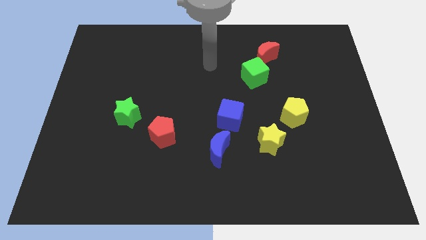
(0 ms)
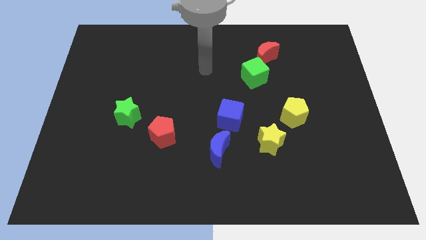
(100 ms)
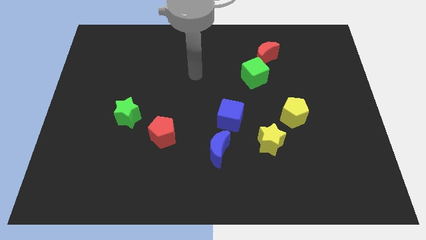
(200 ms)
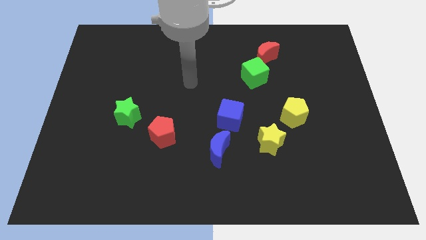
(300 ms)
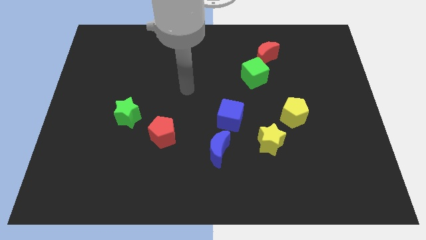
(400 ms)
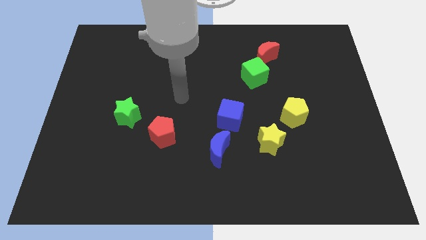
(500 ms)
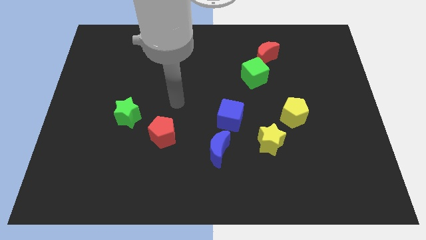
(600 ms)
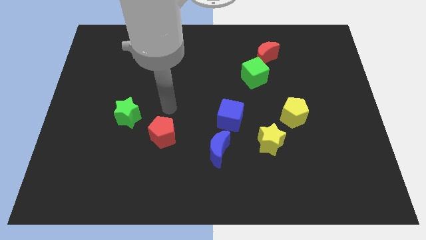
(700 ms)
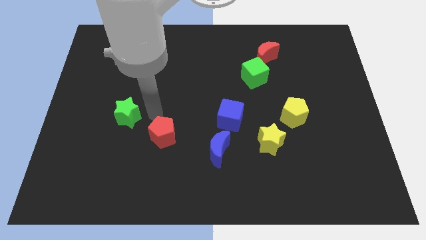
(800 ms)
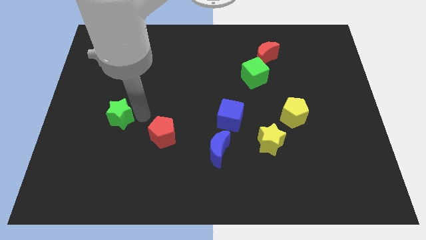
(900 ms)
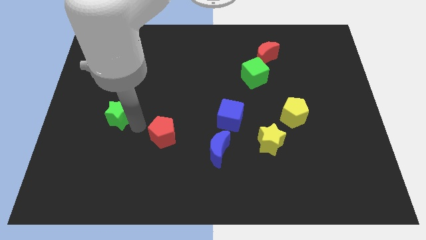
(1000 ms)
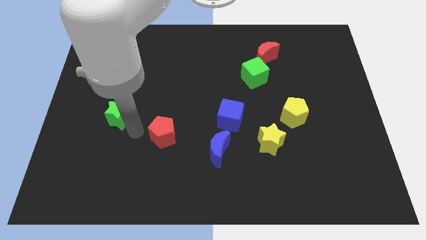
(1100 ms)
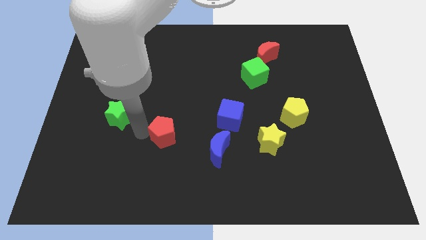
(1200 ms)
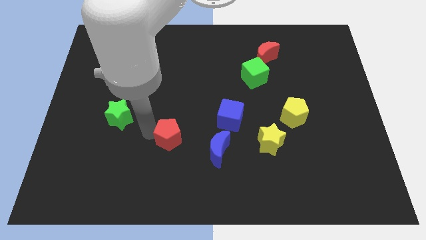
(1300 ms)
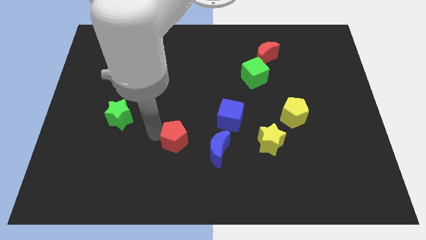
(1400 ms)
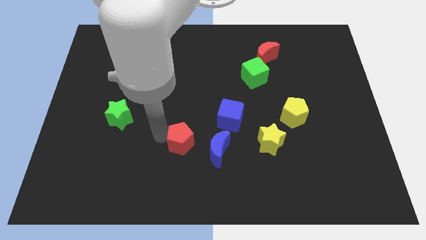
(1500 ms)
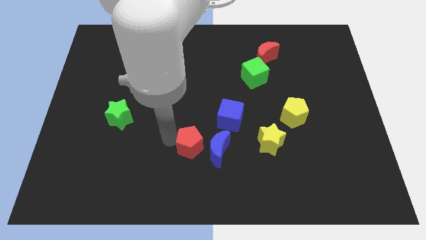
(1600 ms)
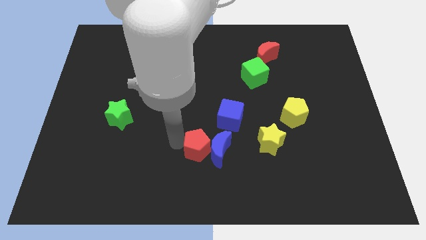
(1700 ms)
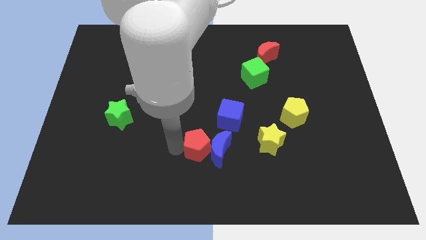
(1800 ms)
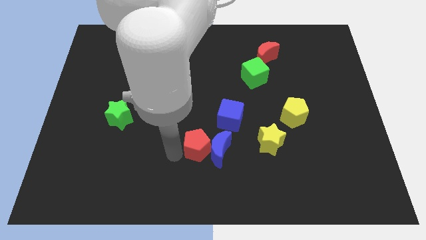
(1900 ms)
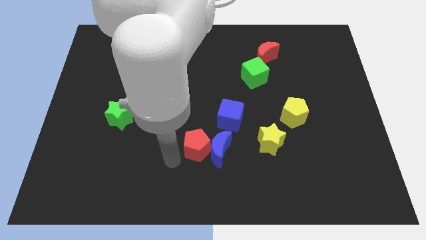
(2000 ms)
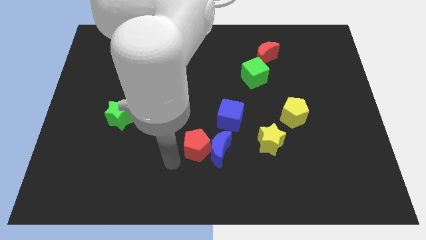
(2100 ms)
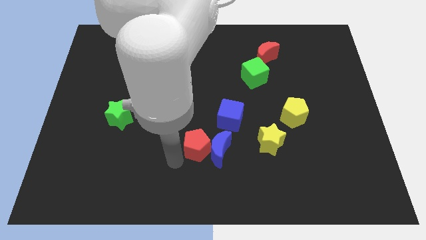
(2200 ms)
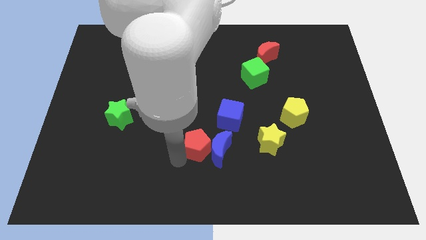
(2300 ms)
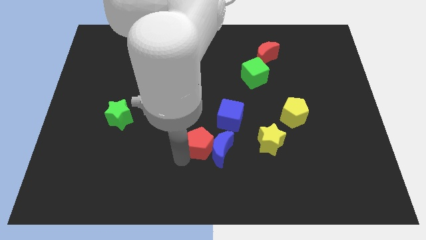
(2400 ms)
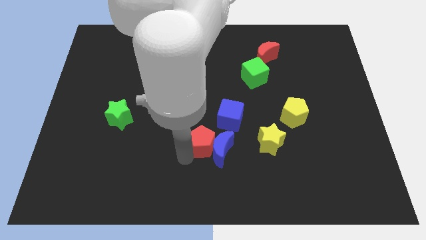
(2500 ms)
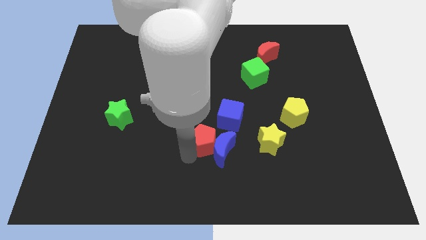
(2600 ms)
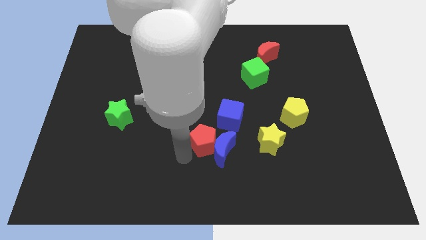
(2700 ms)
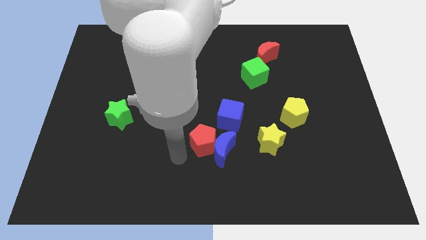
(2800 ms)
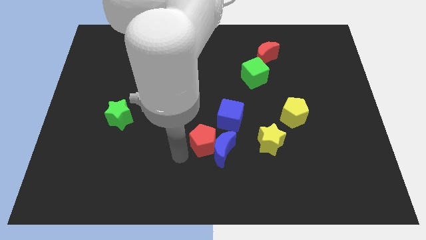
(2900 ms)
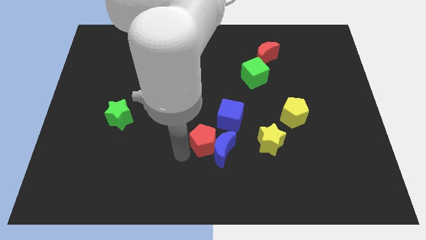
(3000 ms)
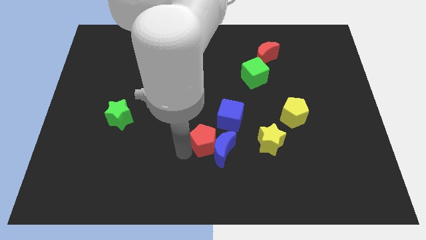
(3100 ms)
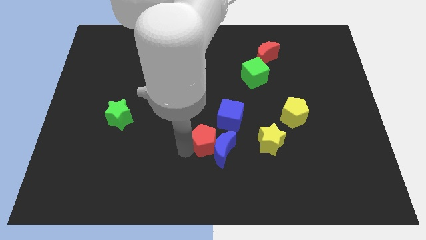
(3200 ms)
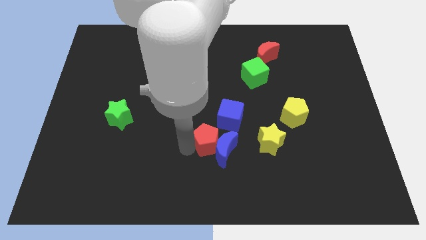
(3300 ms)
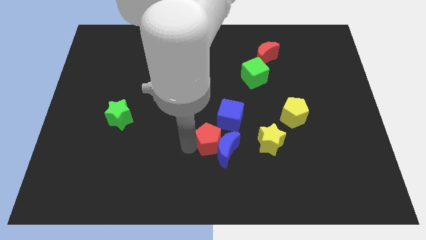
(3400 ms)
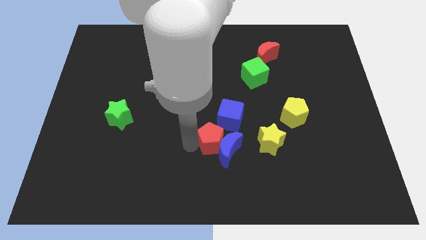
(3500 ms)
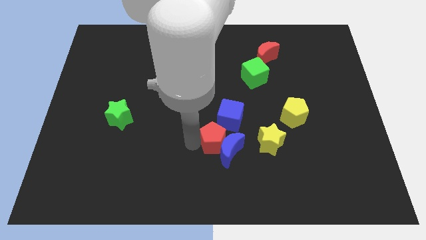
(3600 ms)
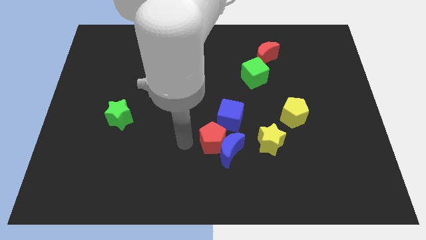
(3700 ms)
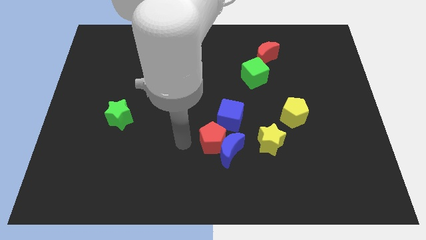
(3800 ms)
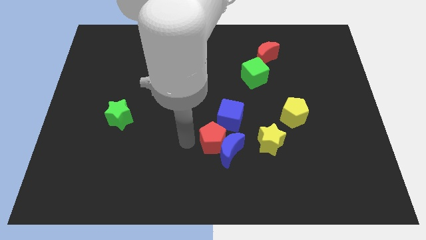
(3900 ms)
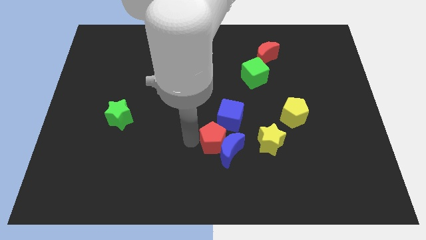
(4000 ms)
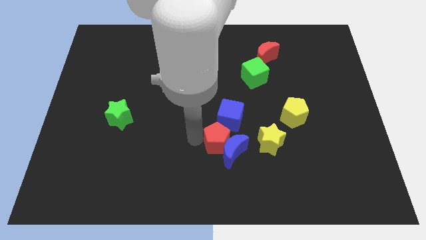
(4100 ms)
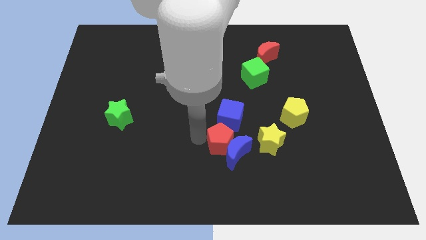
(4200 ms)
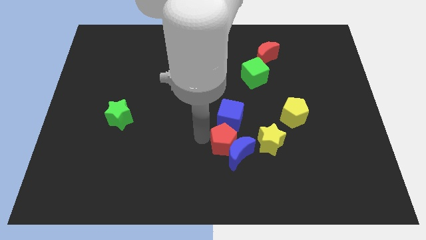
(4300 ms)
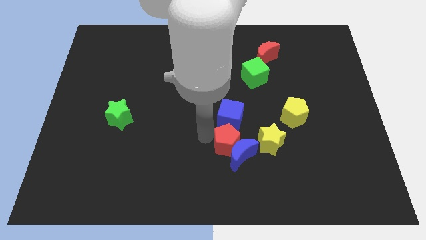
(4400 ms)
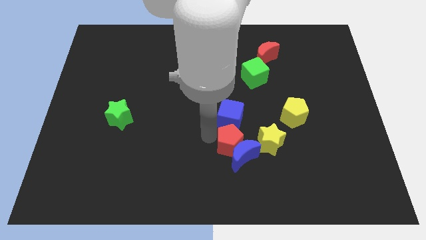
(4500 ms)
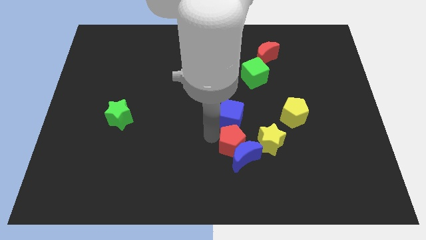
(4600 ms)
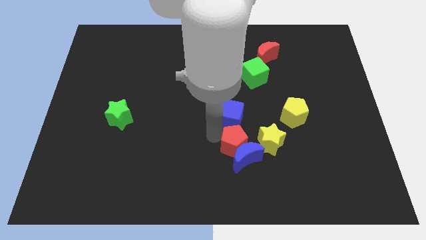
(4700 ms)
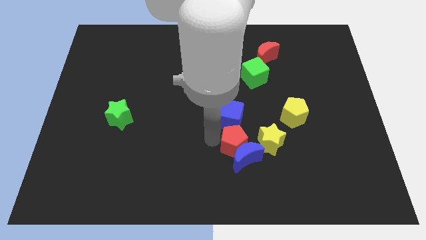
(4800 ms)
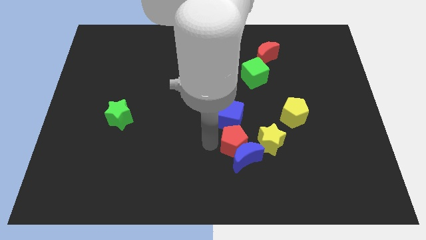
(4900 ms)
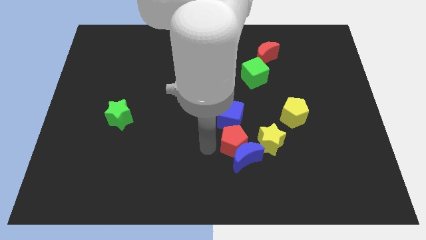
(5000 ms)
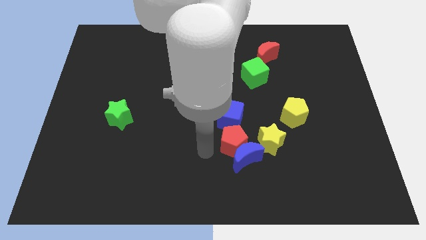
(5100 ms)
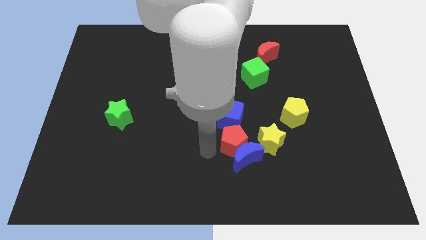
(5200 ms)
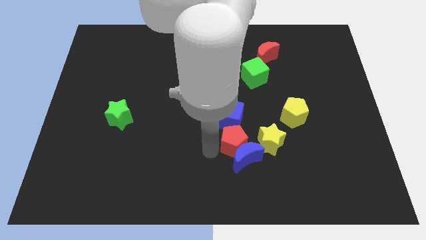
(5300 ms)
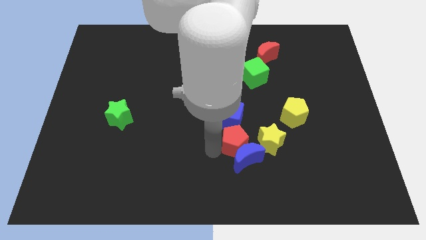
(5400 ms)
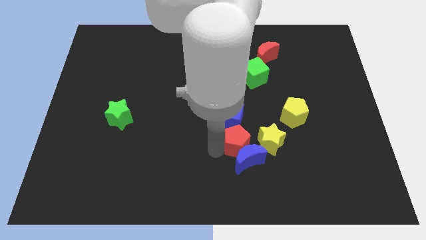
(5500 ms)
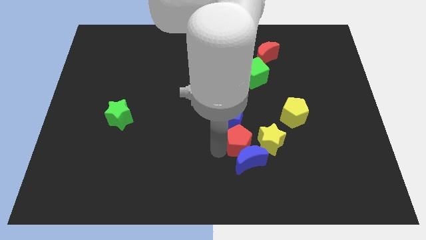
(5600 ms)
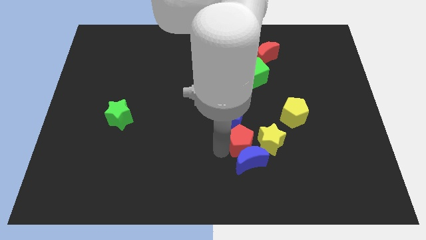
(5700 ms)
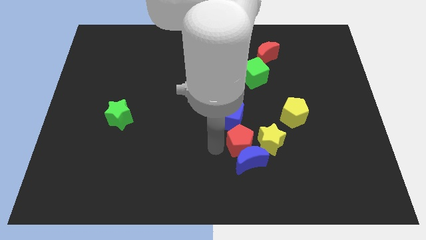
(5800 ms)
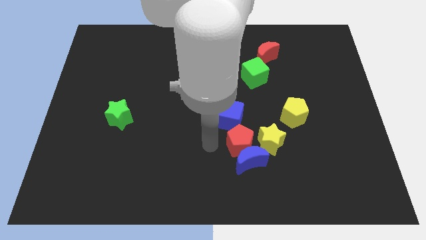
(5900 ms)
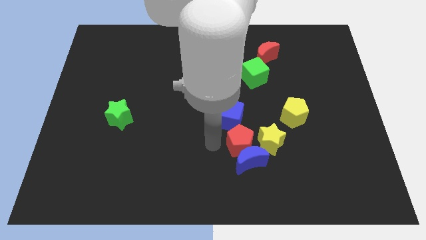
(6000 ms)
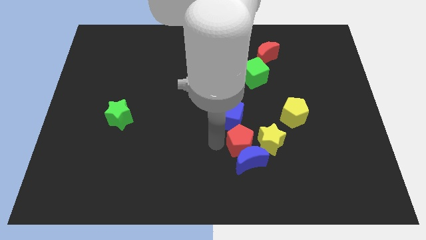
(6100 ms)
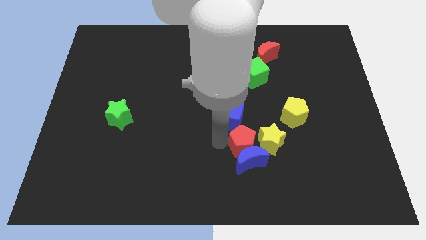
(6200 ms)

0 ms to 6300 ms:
put the red pentagon towards the yellow star

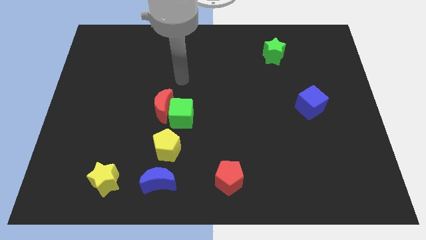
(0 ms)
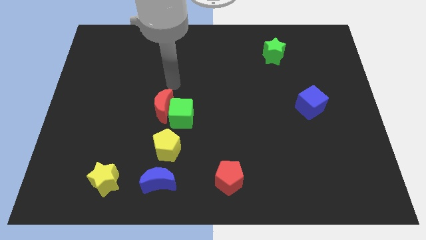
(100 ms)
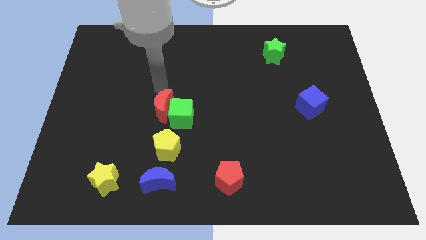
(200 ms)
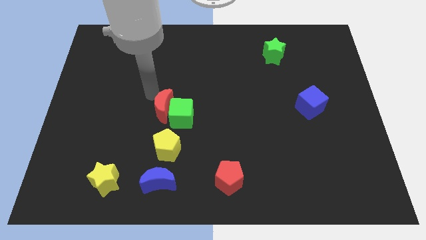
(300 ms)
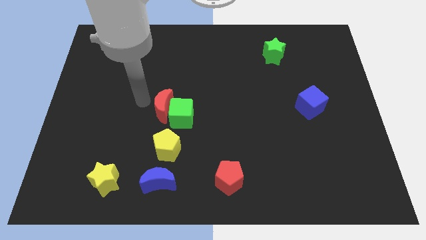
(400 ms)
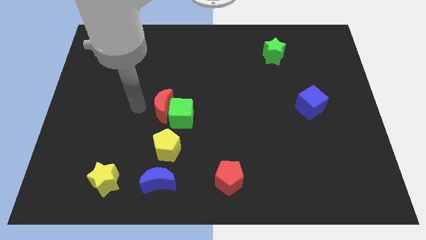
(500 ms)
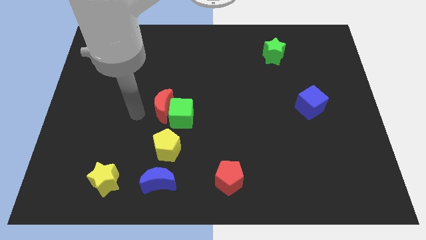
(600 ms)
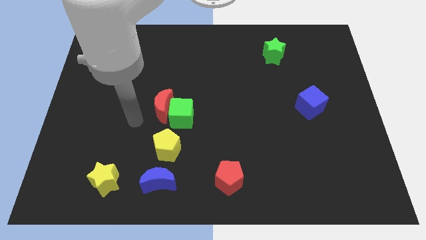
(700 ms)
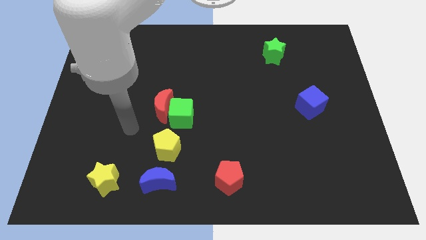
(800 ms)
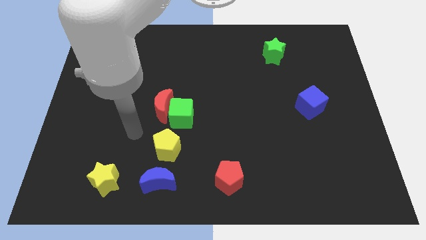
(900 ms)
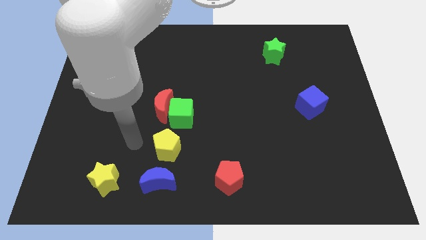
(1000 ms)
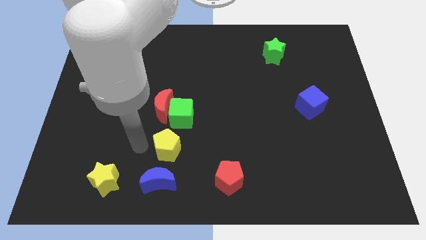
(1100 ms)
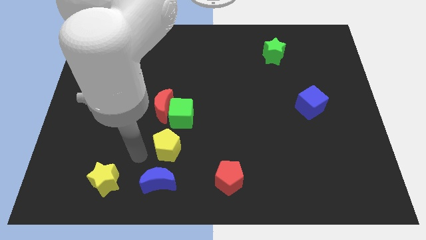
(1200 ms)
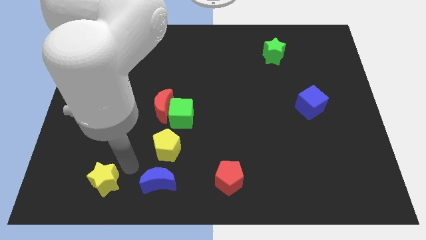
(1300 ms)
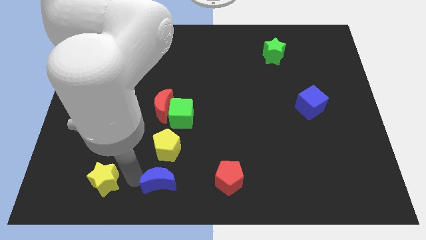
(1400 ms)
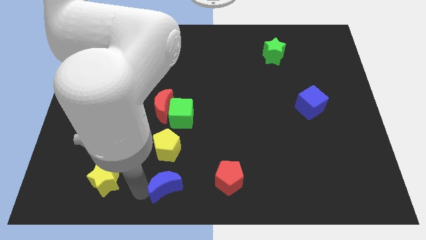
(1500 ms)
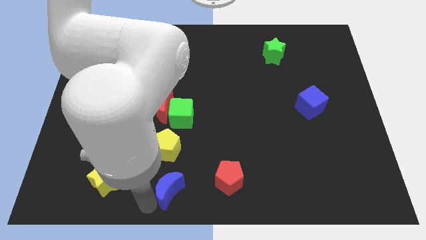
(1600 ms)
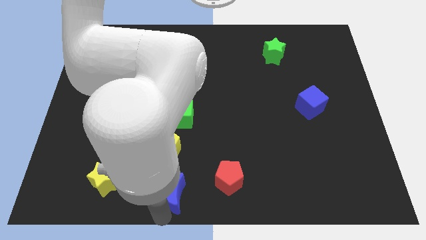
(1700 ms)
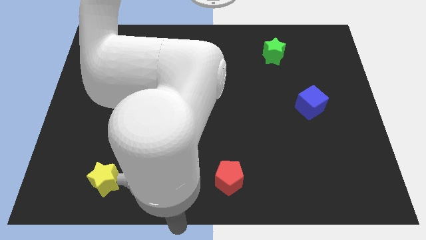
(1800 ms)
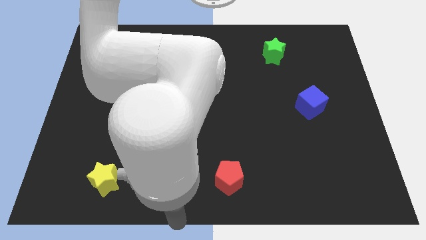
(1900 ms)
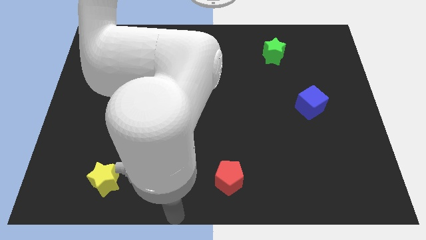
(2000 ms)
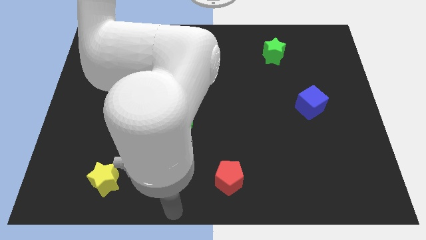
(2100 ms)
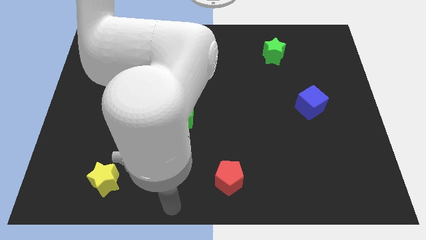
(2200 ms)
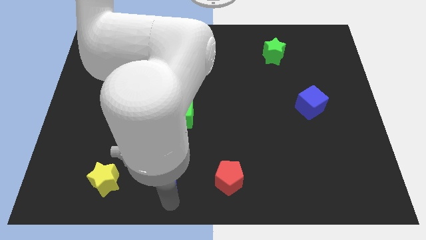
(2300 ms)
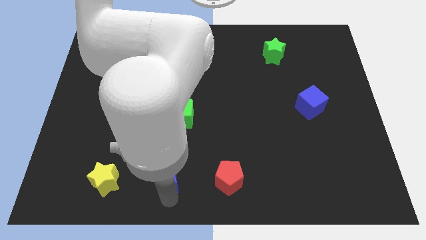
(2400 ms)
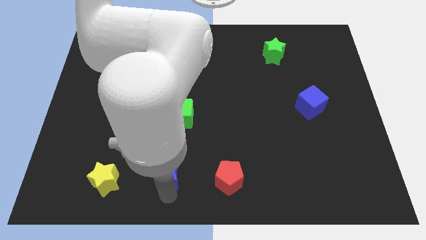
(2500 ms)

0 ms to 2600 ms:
put the blue moon to the yellow pentagon
